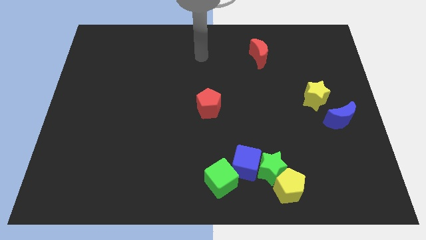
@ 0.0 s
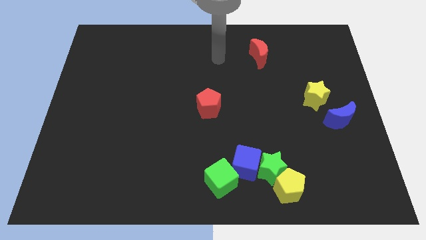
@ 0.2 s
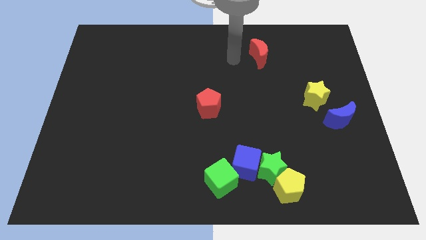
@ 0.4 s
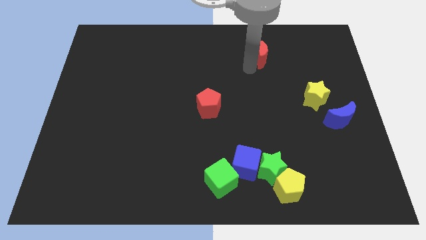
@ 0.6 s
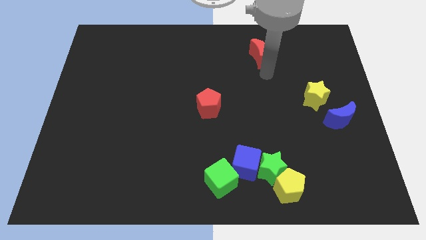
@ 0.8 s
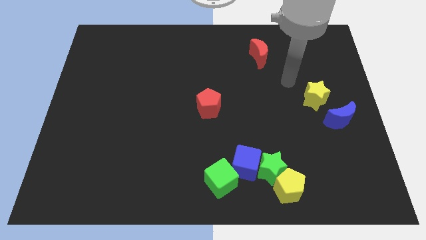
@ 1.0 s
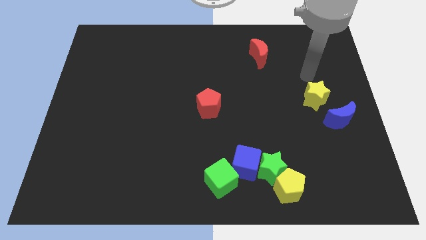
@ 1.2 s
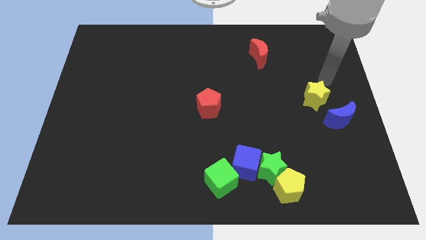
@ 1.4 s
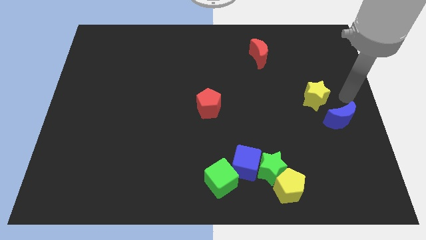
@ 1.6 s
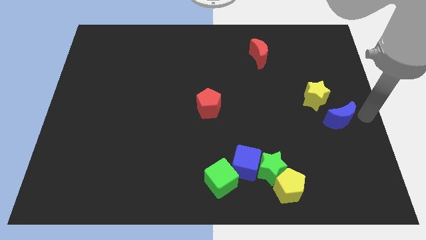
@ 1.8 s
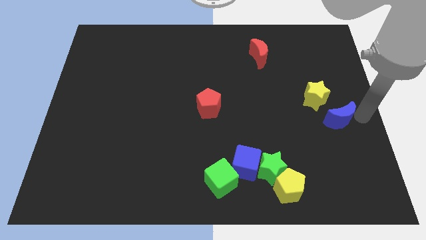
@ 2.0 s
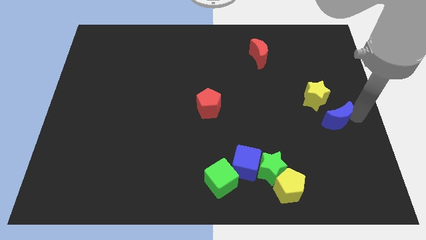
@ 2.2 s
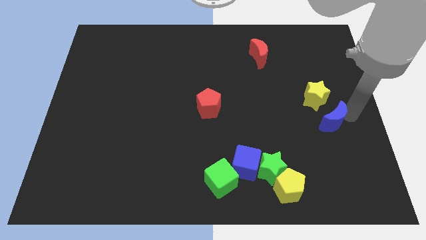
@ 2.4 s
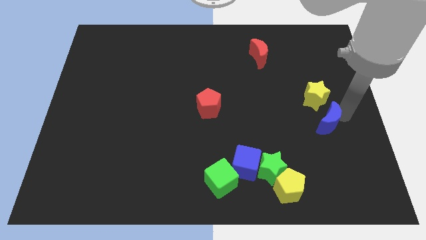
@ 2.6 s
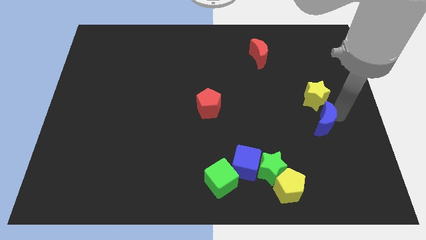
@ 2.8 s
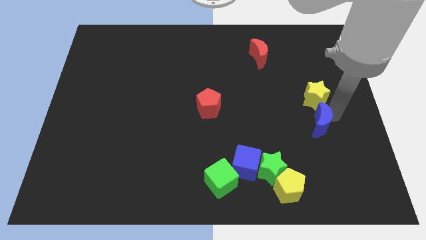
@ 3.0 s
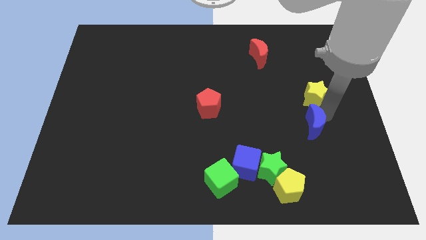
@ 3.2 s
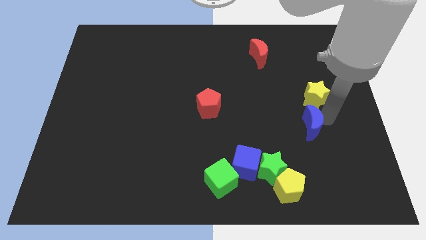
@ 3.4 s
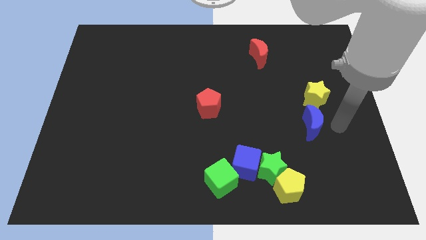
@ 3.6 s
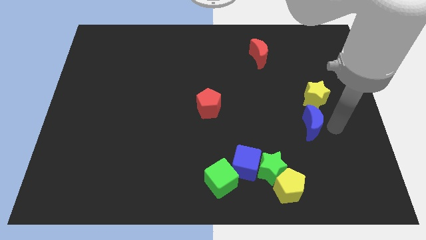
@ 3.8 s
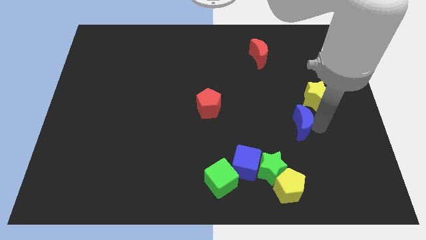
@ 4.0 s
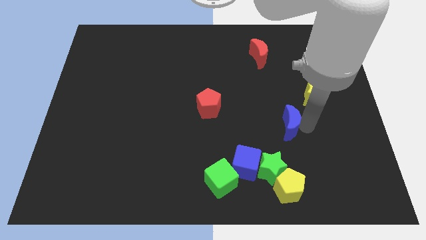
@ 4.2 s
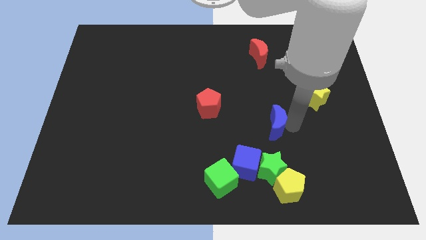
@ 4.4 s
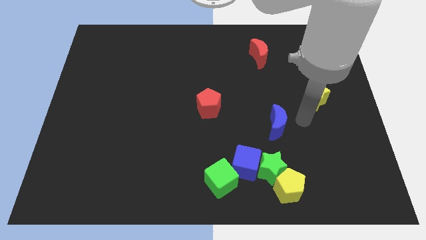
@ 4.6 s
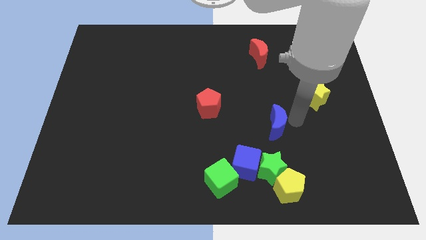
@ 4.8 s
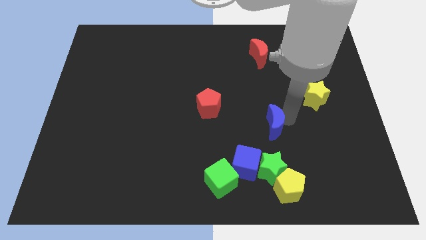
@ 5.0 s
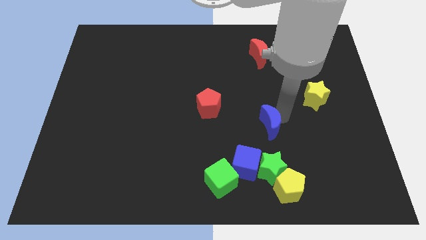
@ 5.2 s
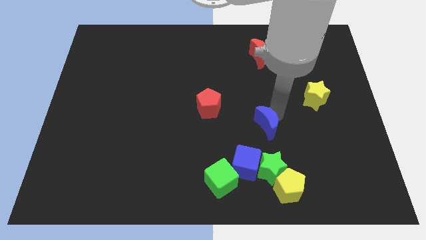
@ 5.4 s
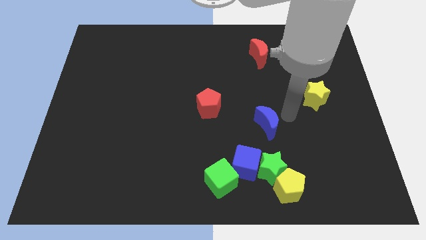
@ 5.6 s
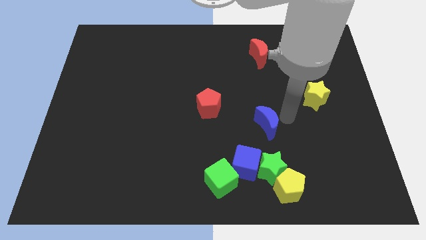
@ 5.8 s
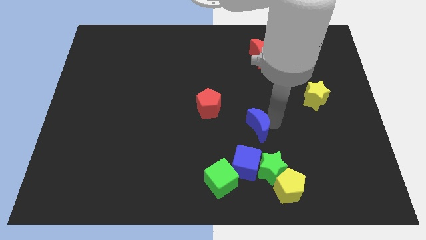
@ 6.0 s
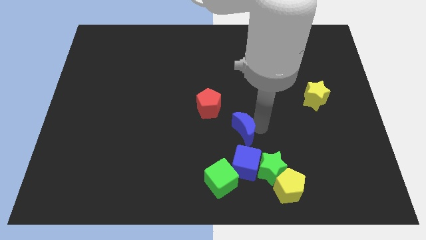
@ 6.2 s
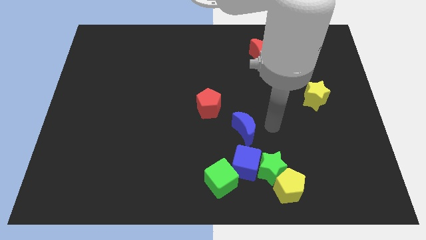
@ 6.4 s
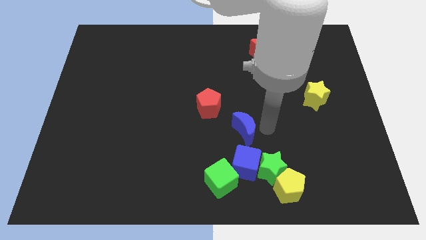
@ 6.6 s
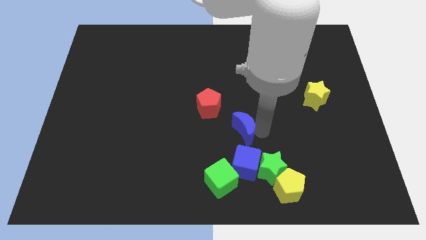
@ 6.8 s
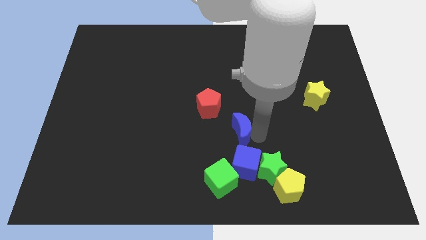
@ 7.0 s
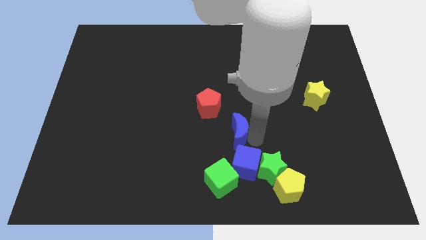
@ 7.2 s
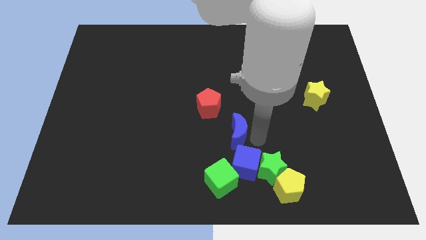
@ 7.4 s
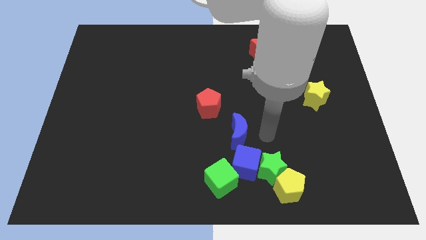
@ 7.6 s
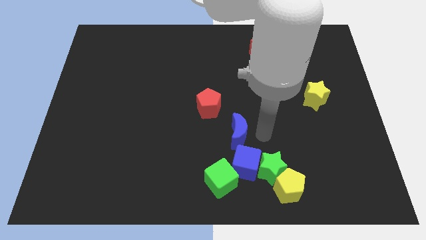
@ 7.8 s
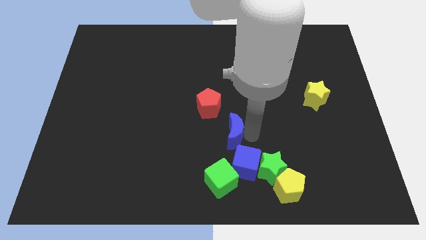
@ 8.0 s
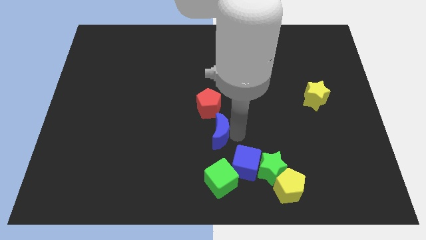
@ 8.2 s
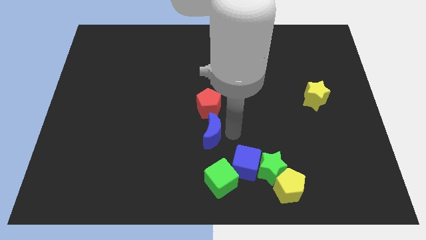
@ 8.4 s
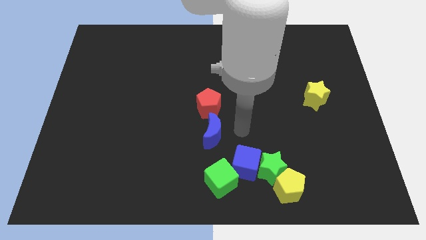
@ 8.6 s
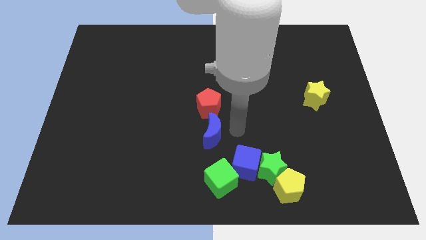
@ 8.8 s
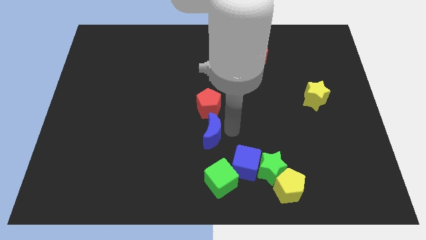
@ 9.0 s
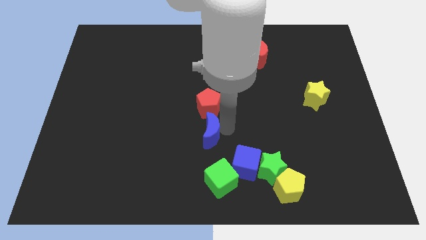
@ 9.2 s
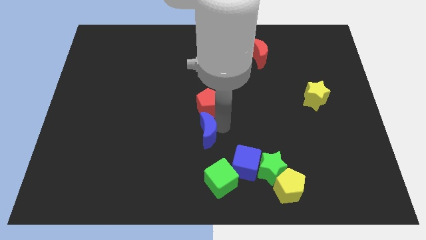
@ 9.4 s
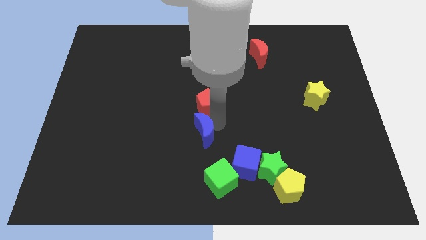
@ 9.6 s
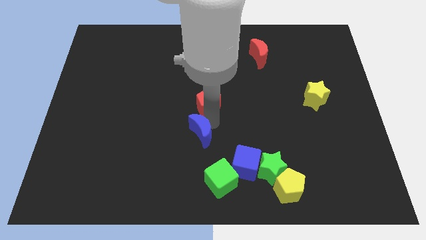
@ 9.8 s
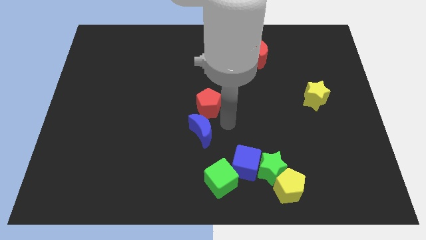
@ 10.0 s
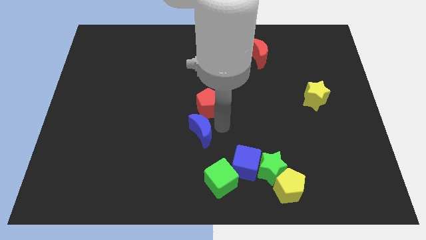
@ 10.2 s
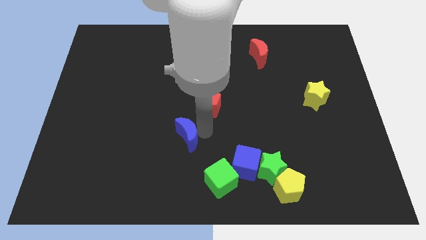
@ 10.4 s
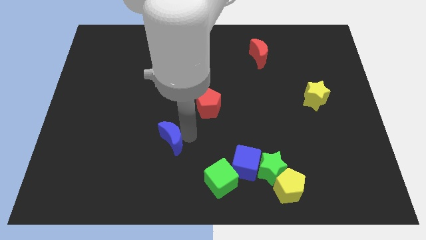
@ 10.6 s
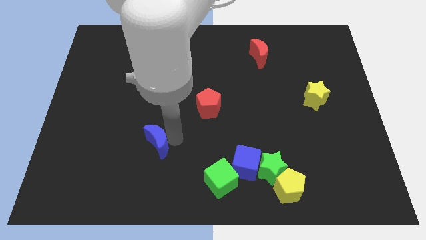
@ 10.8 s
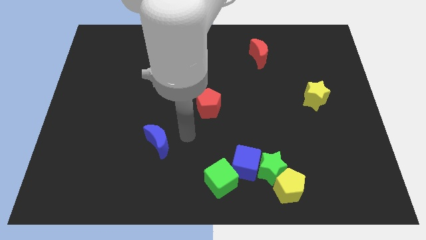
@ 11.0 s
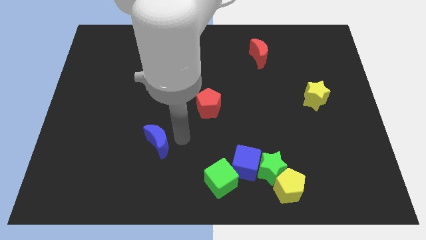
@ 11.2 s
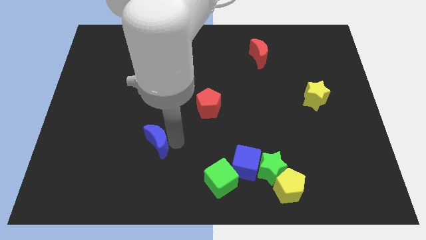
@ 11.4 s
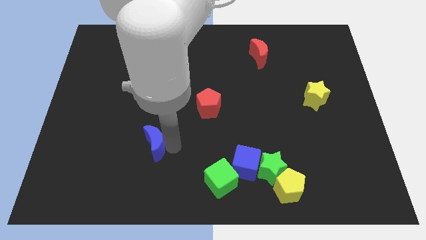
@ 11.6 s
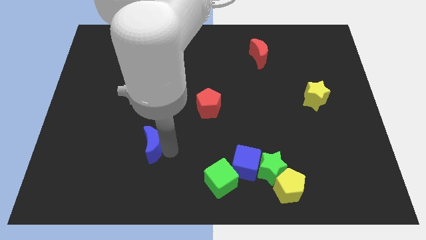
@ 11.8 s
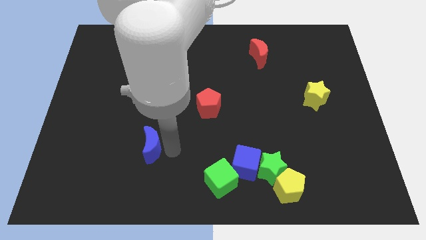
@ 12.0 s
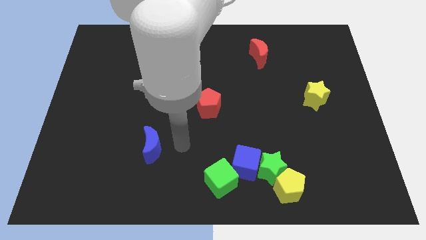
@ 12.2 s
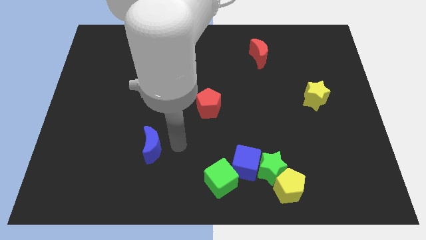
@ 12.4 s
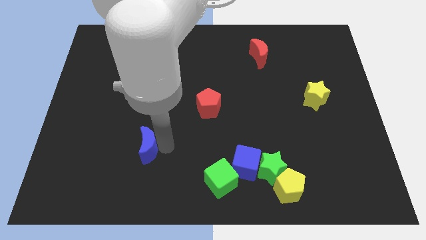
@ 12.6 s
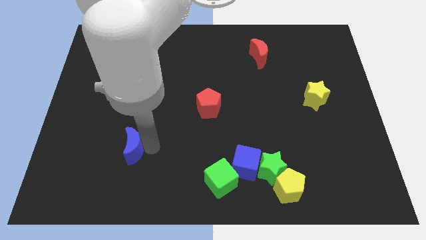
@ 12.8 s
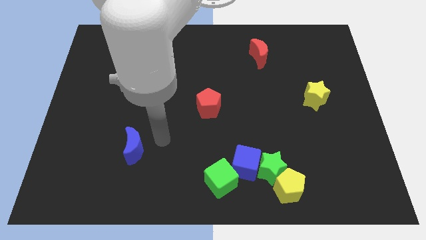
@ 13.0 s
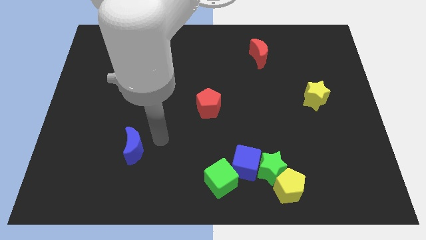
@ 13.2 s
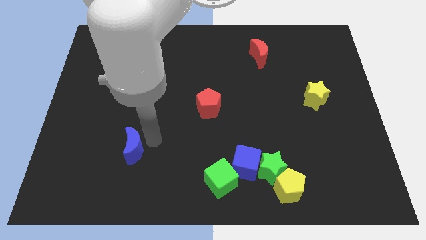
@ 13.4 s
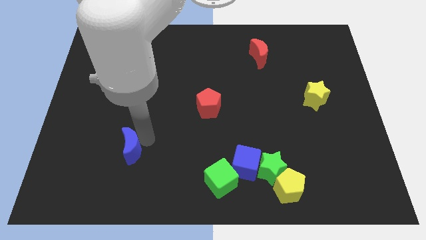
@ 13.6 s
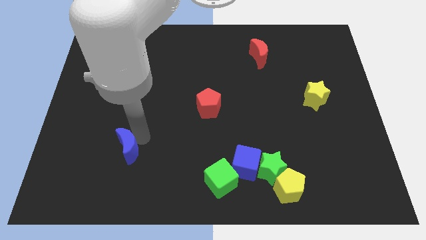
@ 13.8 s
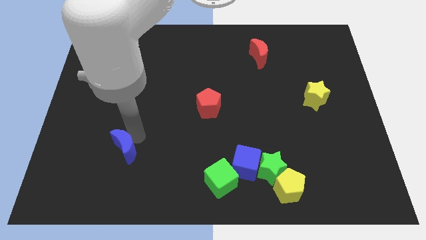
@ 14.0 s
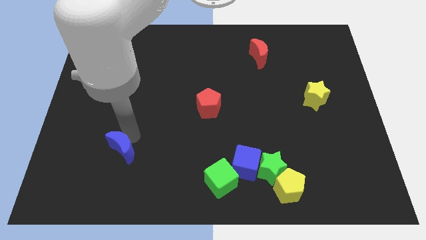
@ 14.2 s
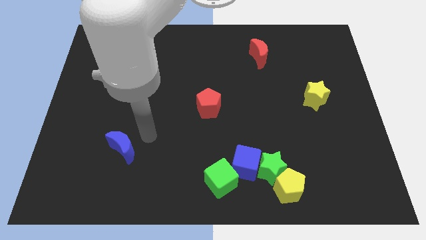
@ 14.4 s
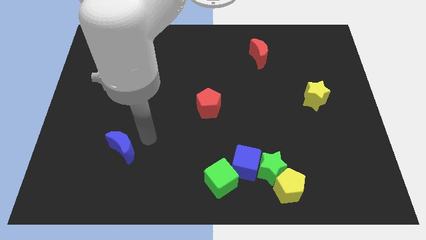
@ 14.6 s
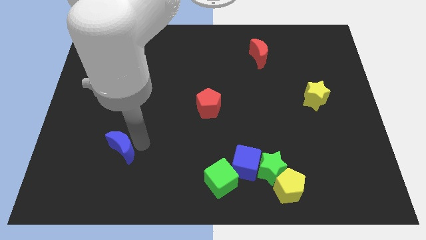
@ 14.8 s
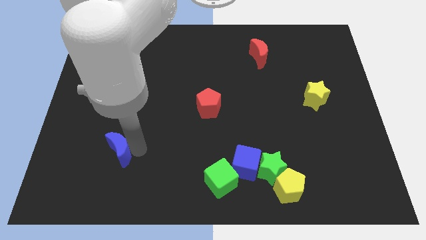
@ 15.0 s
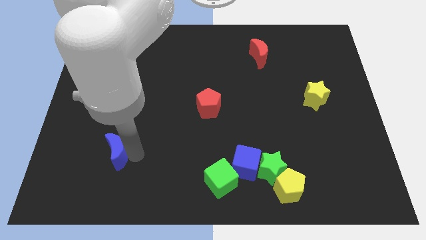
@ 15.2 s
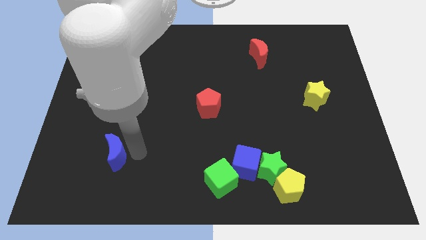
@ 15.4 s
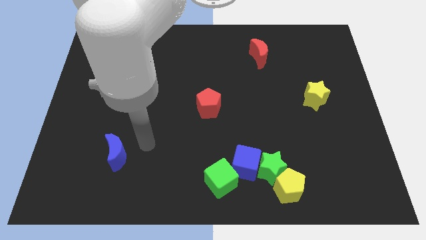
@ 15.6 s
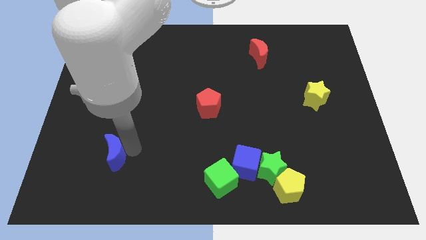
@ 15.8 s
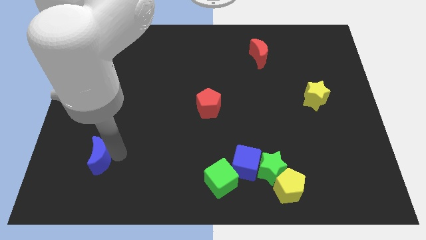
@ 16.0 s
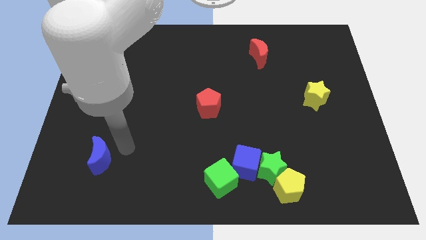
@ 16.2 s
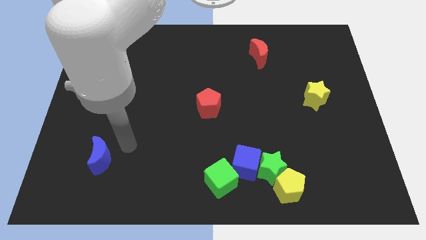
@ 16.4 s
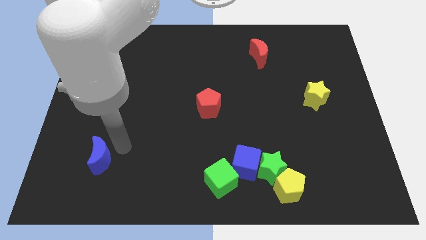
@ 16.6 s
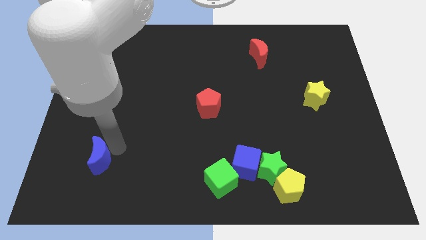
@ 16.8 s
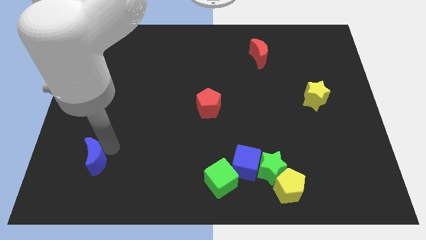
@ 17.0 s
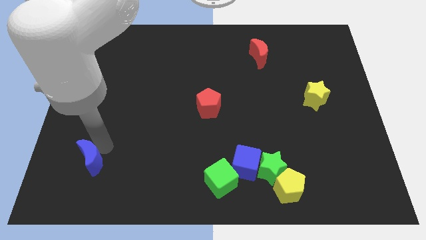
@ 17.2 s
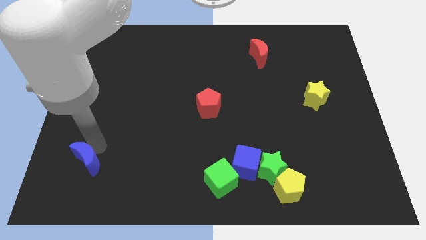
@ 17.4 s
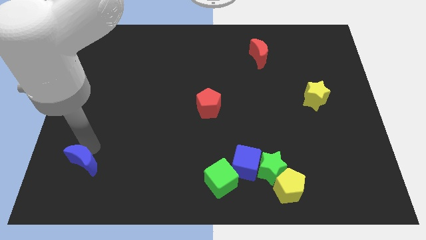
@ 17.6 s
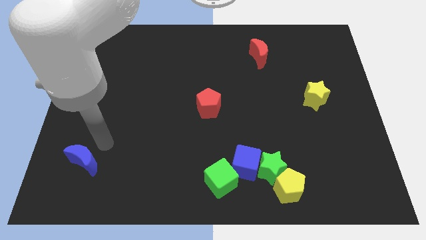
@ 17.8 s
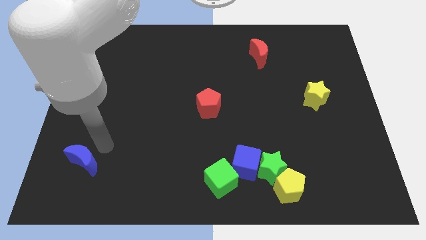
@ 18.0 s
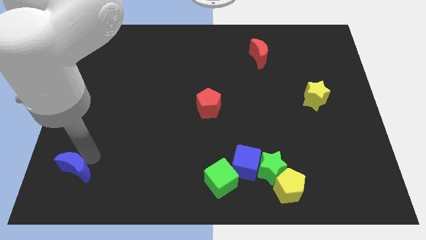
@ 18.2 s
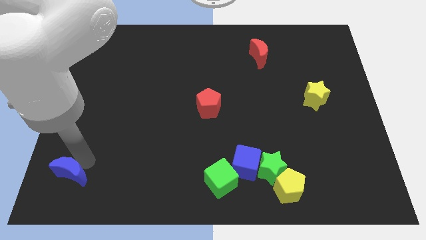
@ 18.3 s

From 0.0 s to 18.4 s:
move the blue moon to the lower left corner
